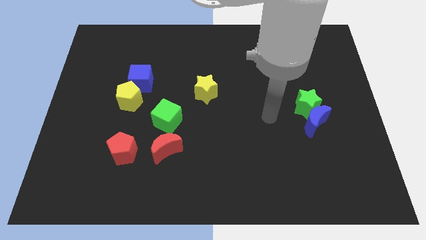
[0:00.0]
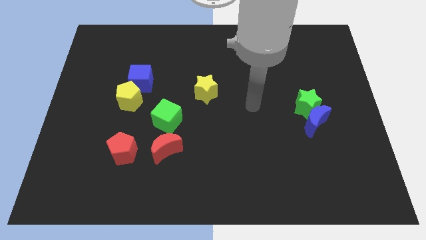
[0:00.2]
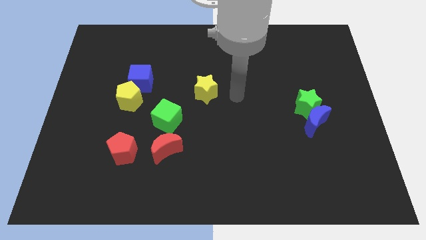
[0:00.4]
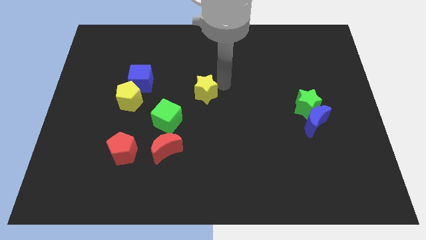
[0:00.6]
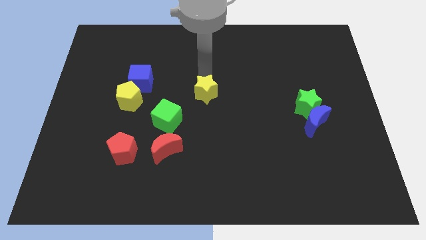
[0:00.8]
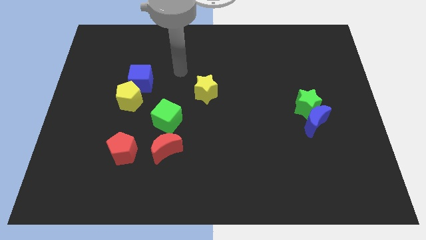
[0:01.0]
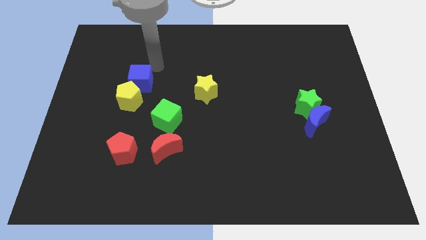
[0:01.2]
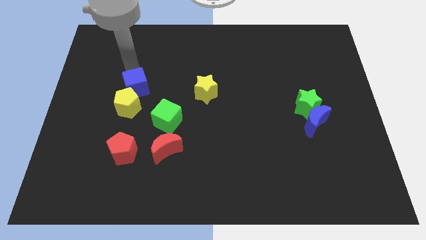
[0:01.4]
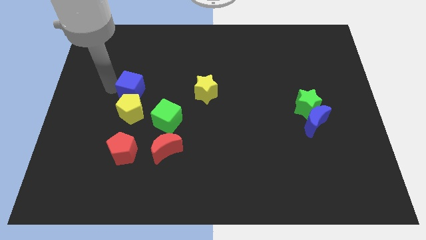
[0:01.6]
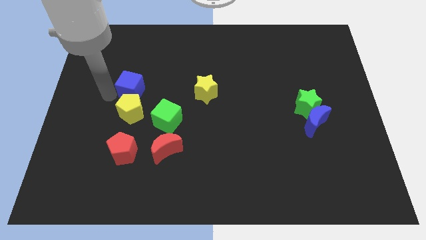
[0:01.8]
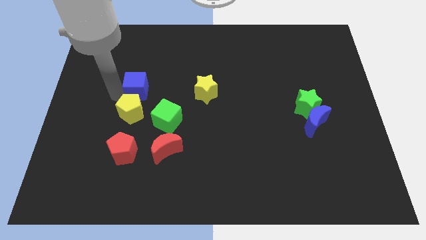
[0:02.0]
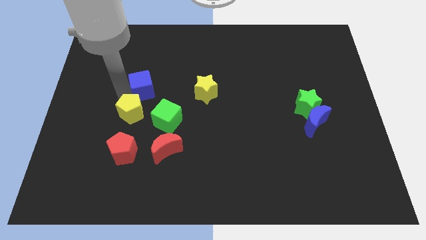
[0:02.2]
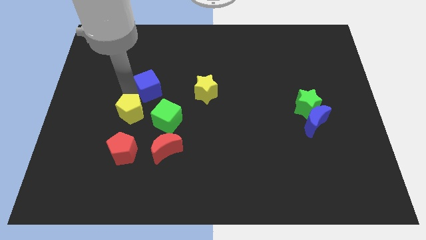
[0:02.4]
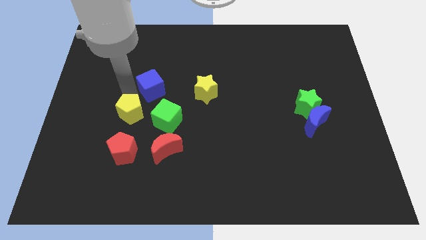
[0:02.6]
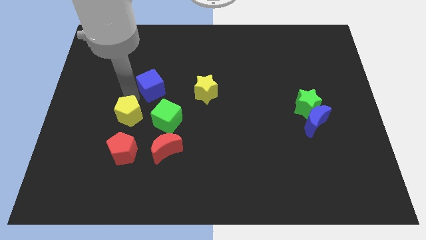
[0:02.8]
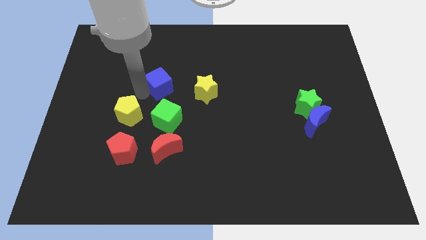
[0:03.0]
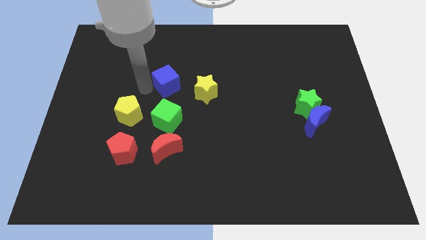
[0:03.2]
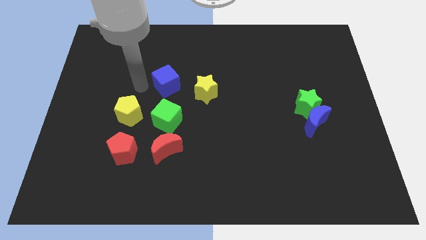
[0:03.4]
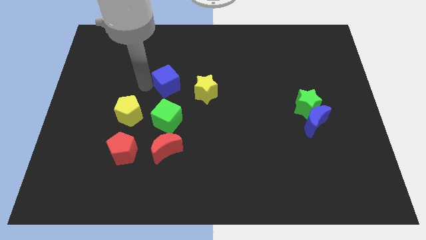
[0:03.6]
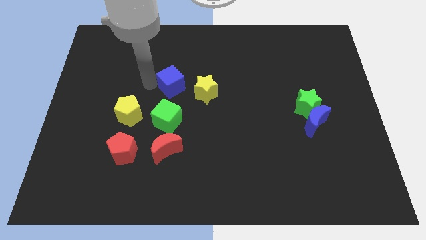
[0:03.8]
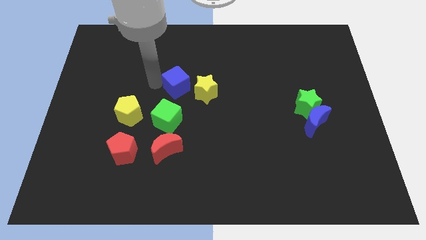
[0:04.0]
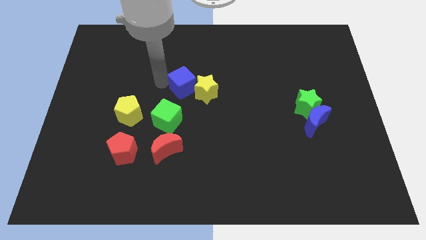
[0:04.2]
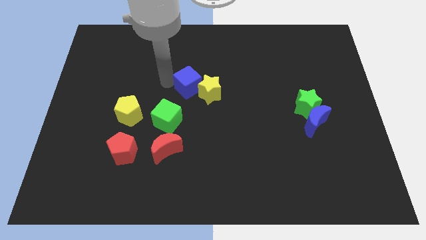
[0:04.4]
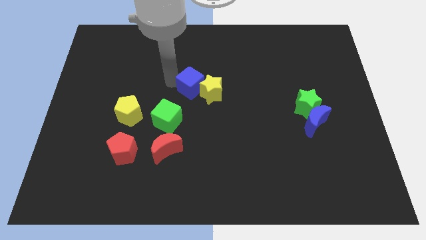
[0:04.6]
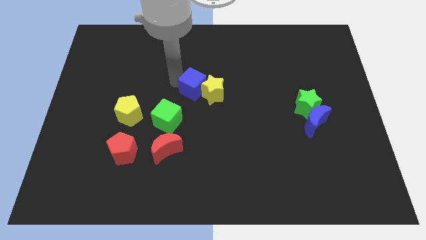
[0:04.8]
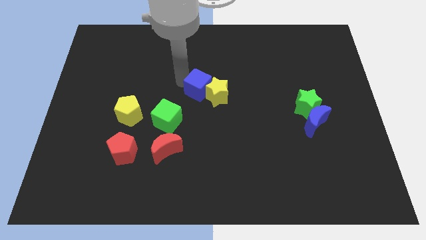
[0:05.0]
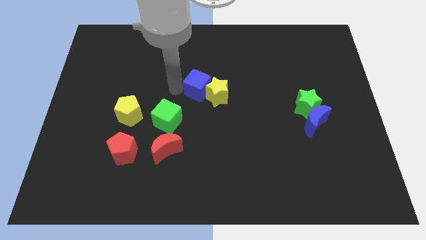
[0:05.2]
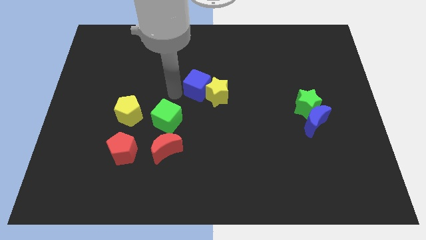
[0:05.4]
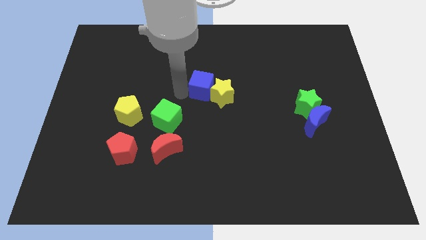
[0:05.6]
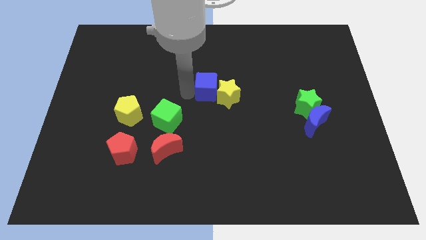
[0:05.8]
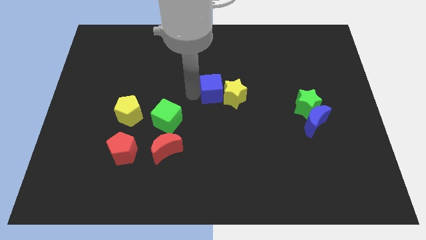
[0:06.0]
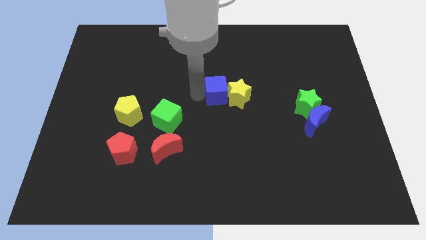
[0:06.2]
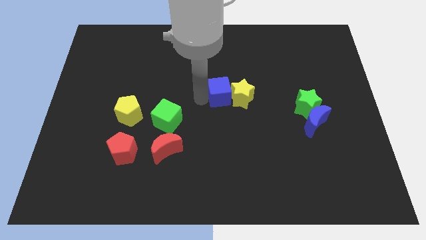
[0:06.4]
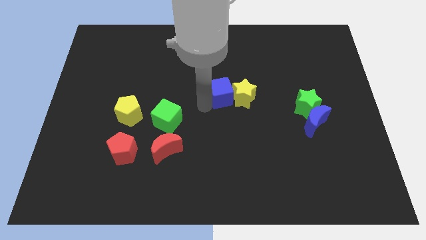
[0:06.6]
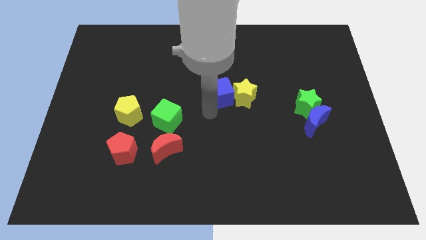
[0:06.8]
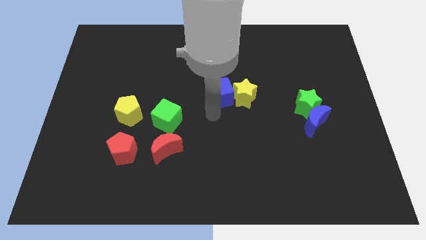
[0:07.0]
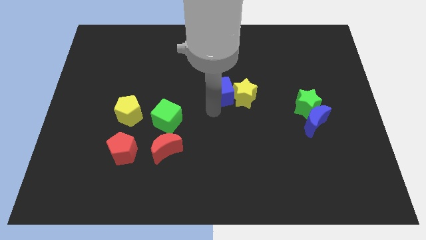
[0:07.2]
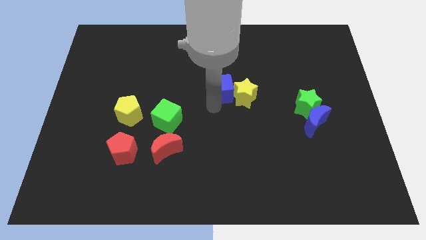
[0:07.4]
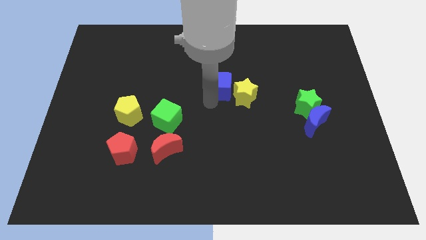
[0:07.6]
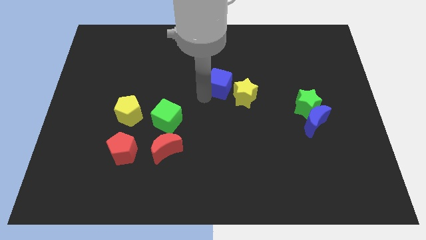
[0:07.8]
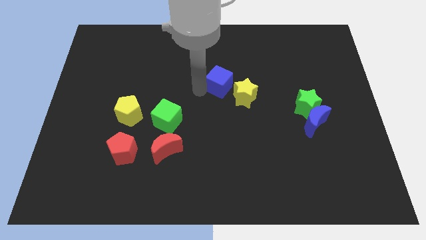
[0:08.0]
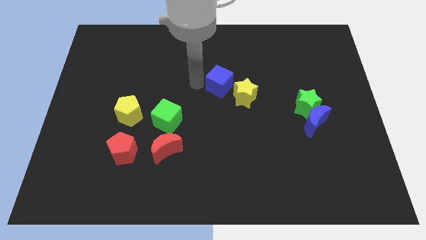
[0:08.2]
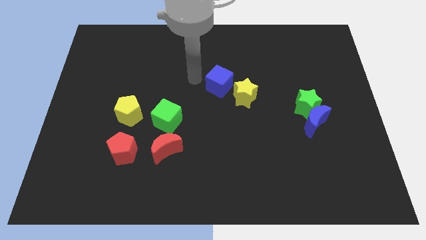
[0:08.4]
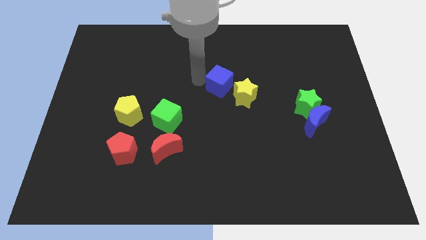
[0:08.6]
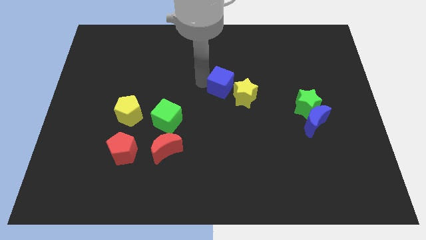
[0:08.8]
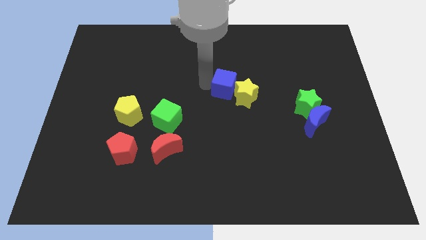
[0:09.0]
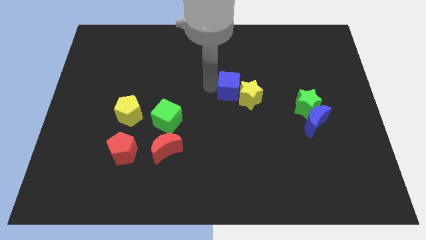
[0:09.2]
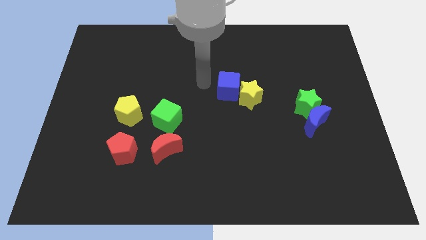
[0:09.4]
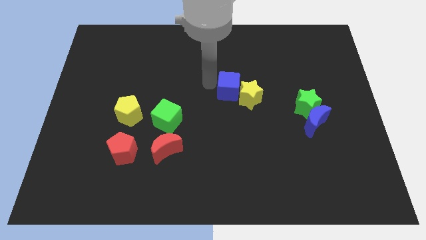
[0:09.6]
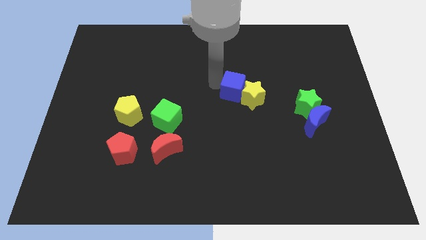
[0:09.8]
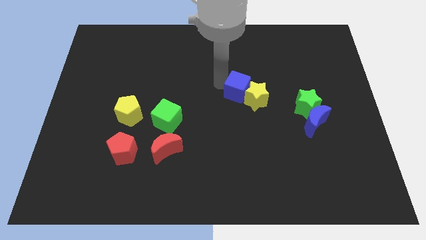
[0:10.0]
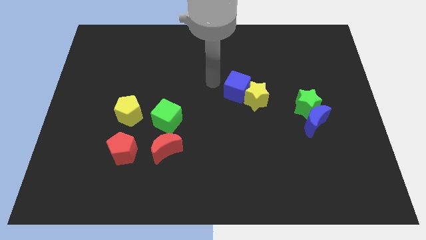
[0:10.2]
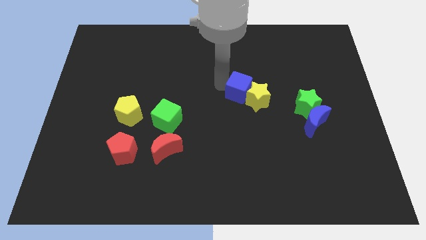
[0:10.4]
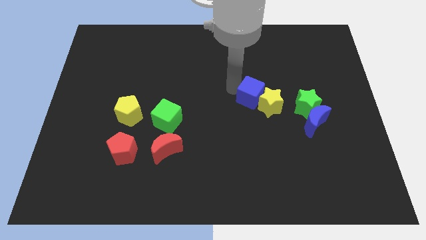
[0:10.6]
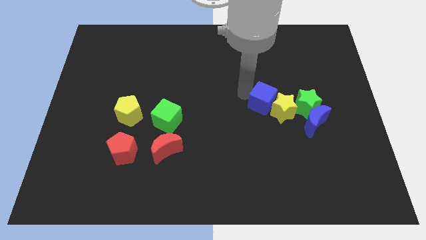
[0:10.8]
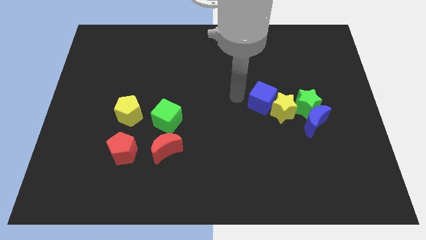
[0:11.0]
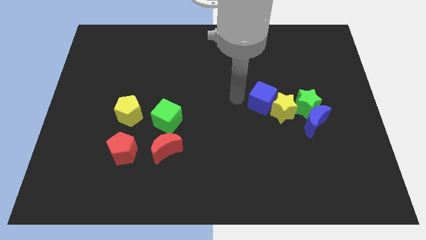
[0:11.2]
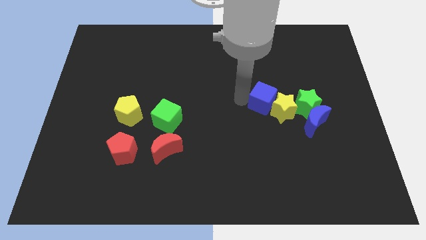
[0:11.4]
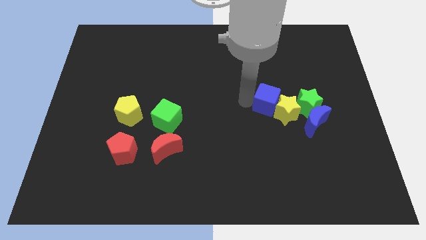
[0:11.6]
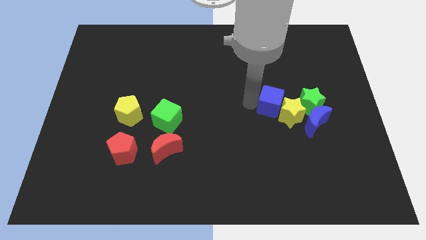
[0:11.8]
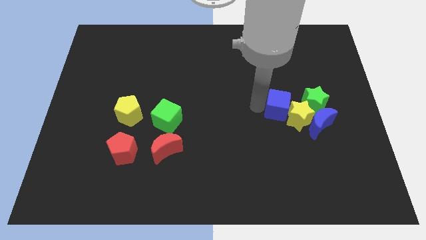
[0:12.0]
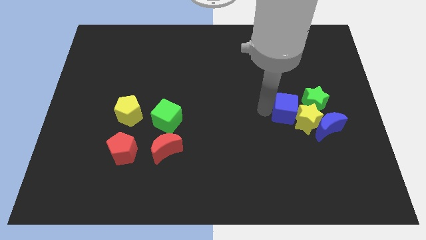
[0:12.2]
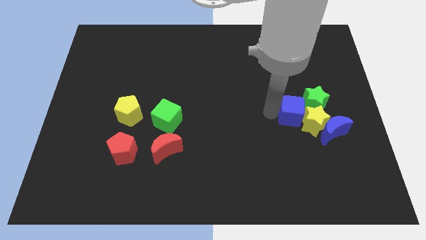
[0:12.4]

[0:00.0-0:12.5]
move the blue cube close to the green star

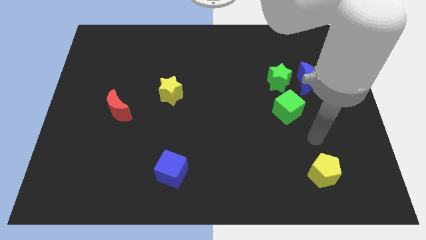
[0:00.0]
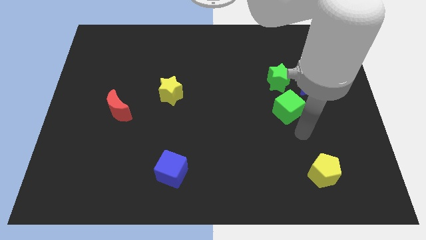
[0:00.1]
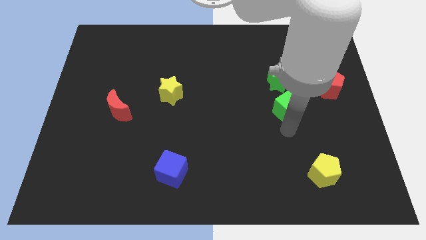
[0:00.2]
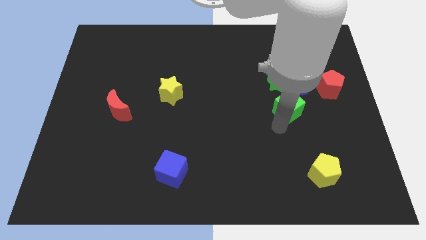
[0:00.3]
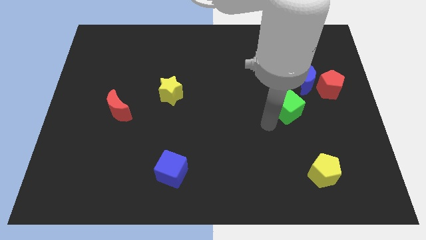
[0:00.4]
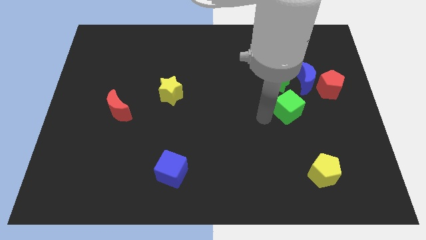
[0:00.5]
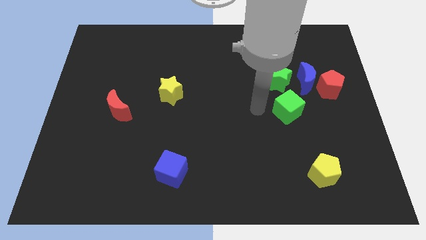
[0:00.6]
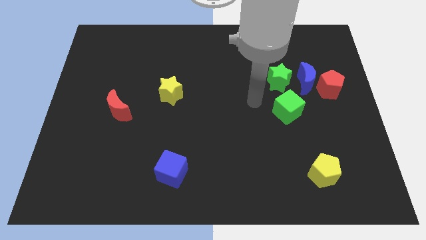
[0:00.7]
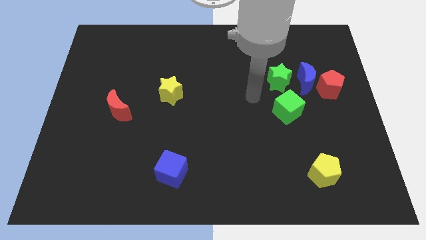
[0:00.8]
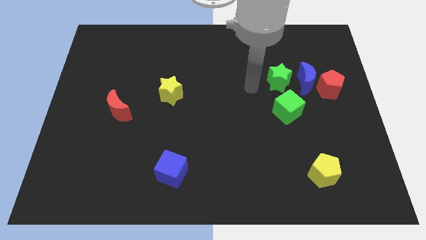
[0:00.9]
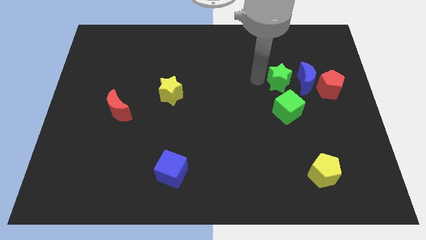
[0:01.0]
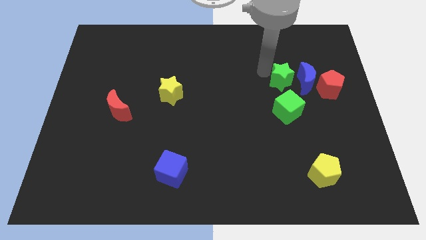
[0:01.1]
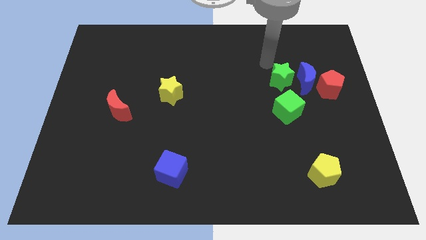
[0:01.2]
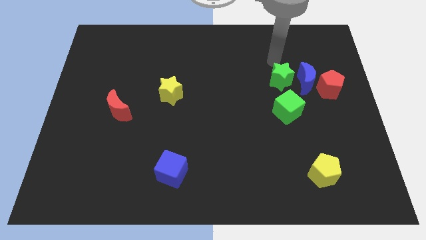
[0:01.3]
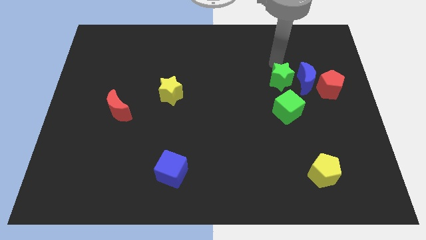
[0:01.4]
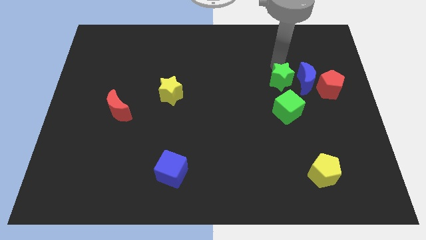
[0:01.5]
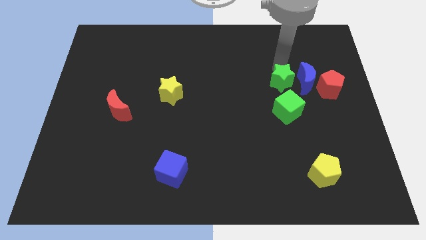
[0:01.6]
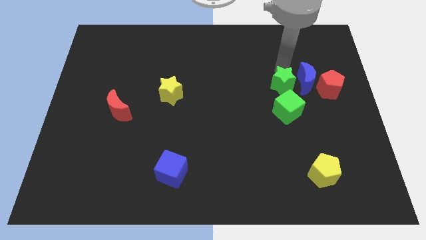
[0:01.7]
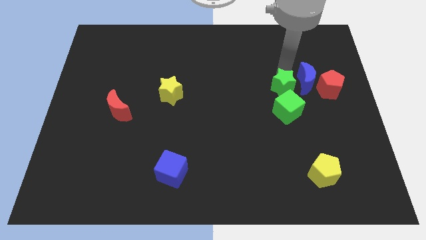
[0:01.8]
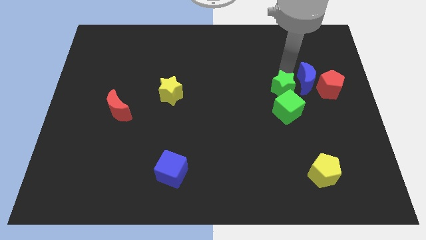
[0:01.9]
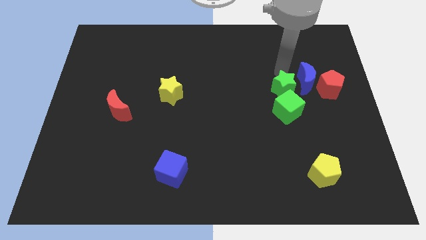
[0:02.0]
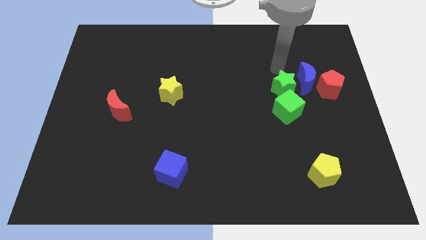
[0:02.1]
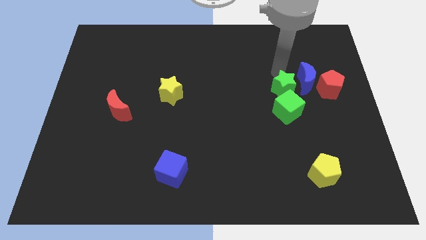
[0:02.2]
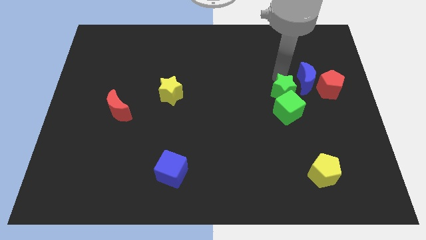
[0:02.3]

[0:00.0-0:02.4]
move the green star to the green cube
